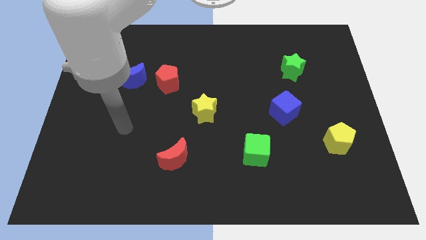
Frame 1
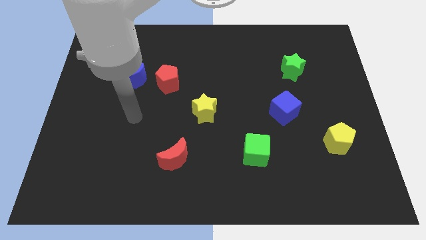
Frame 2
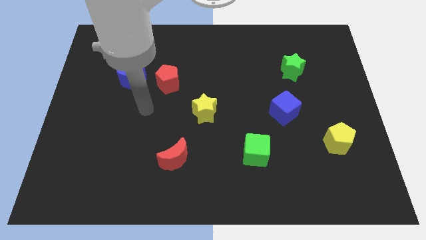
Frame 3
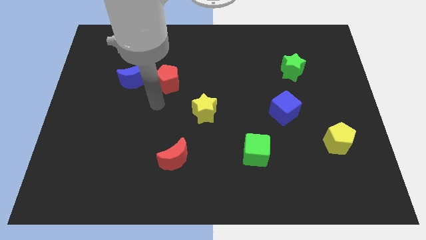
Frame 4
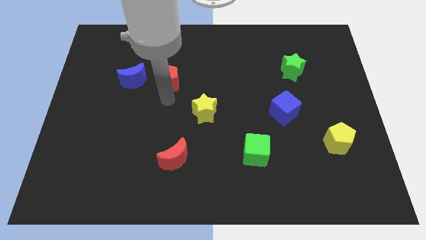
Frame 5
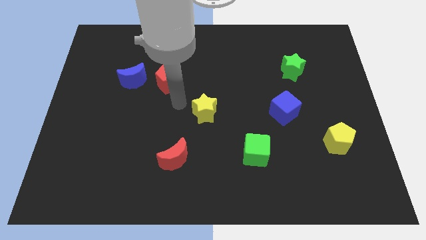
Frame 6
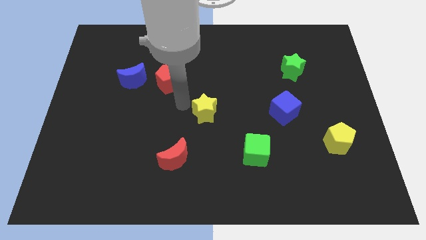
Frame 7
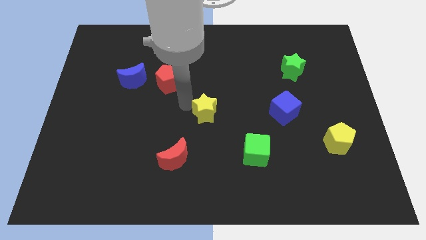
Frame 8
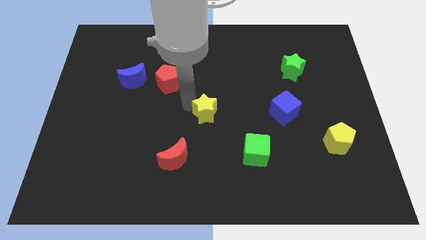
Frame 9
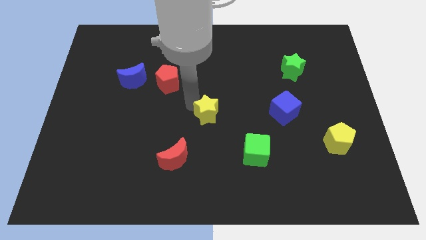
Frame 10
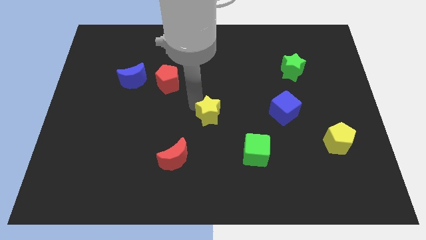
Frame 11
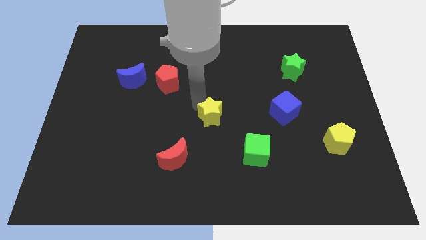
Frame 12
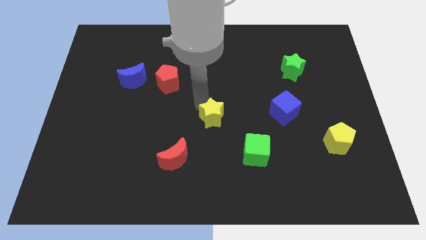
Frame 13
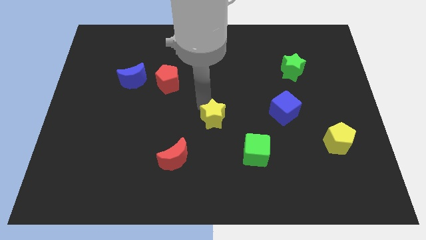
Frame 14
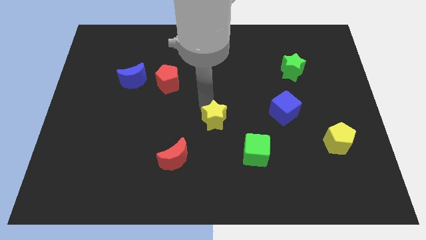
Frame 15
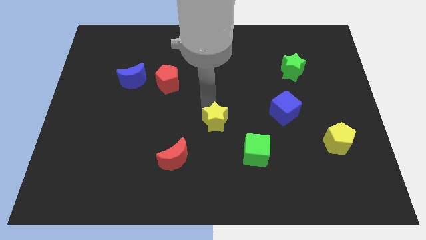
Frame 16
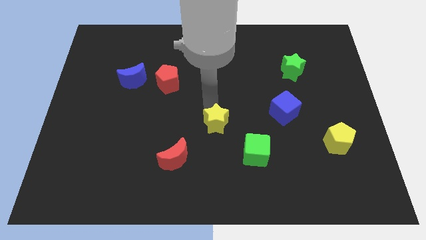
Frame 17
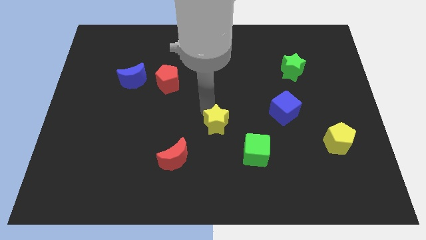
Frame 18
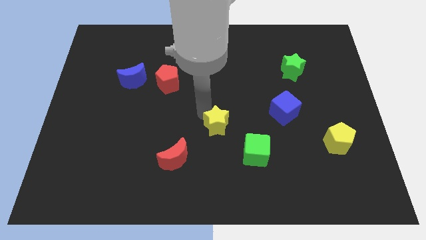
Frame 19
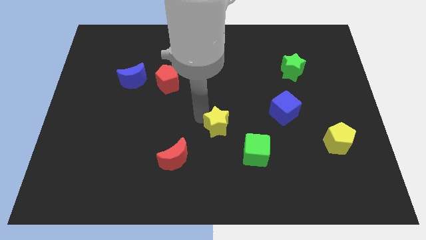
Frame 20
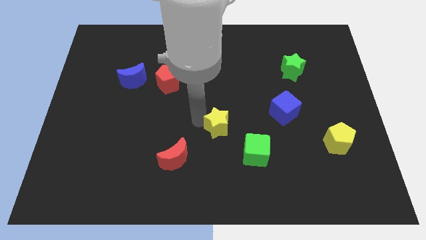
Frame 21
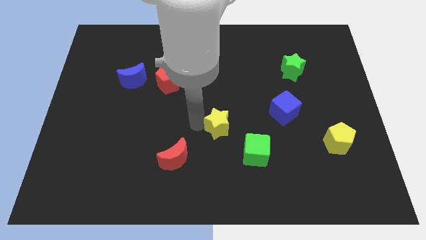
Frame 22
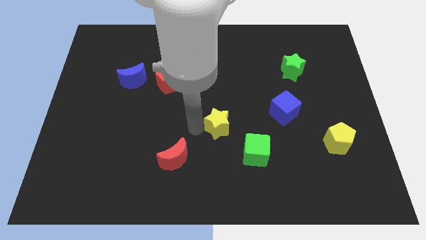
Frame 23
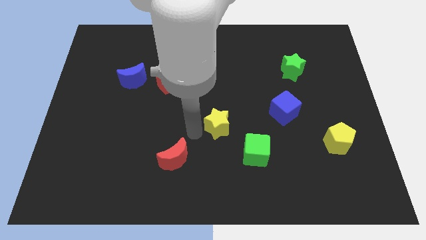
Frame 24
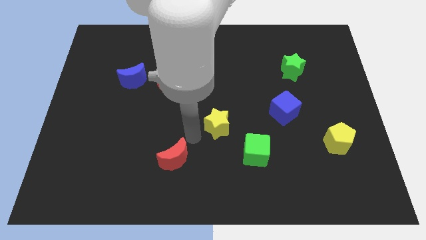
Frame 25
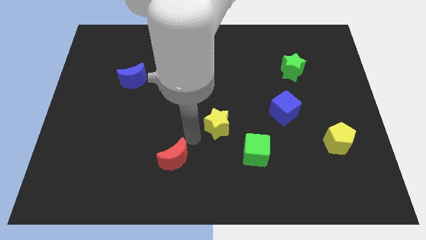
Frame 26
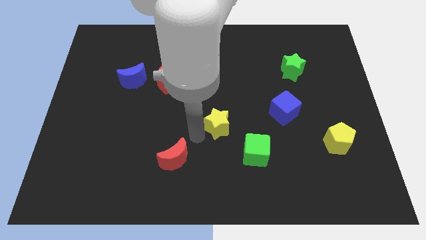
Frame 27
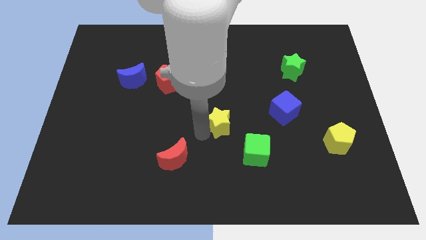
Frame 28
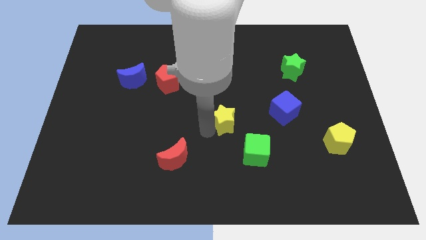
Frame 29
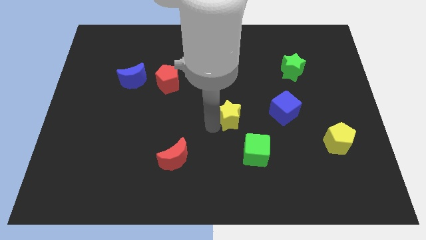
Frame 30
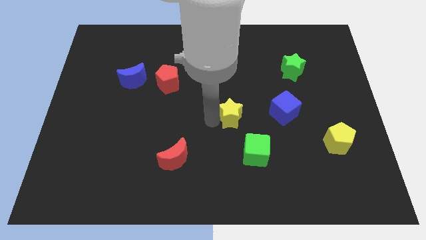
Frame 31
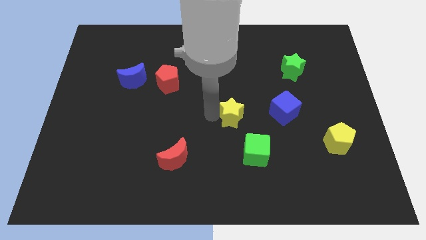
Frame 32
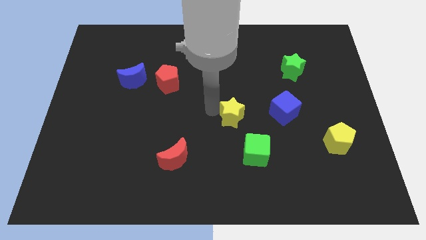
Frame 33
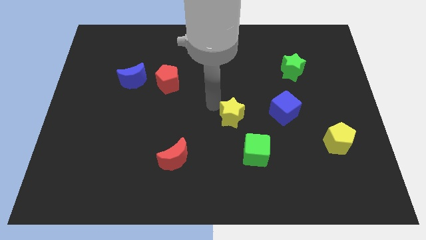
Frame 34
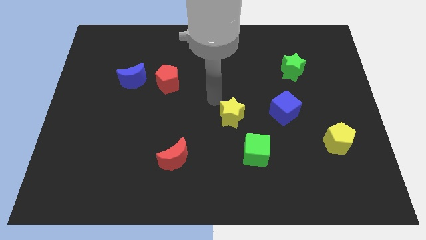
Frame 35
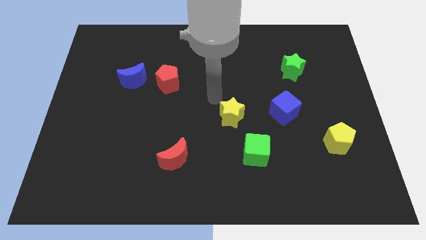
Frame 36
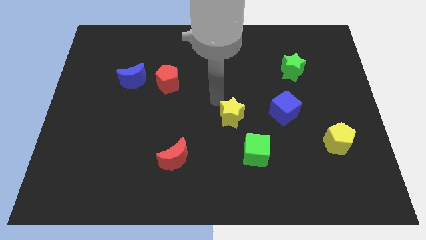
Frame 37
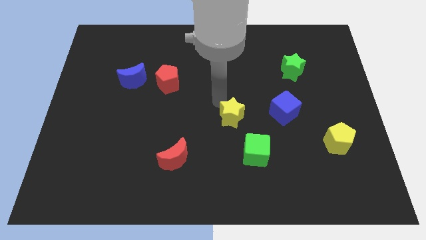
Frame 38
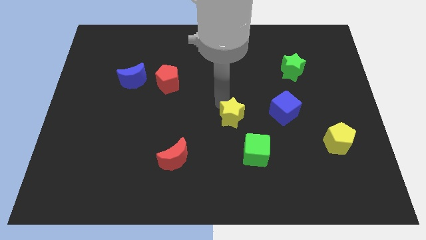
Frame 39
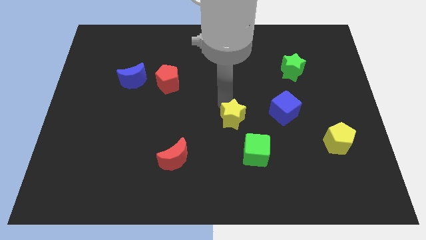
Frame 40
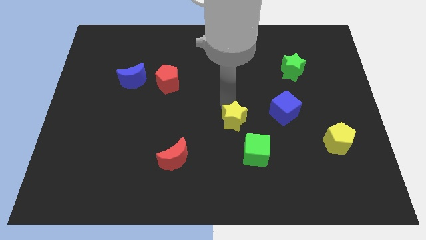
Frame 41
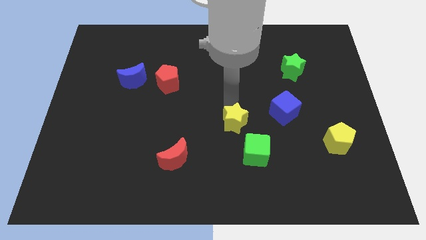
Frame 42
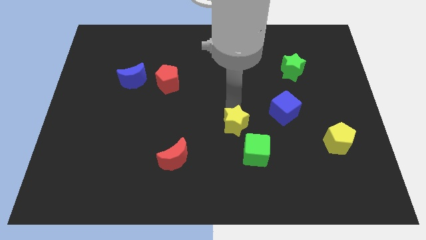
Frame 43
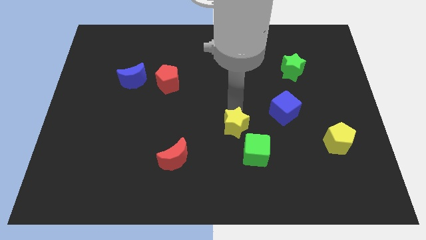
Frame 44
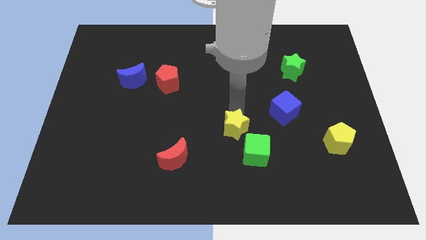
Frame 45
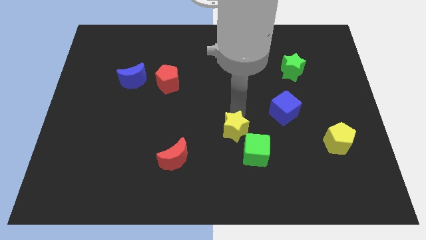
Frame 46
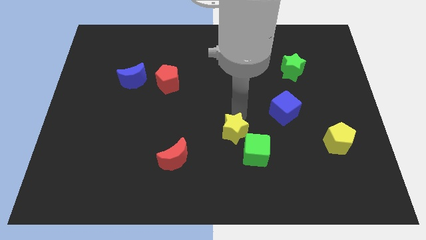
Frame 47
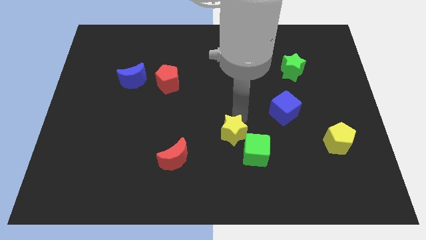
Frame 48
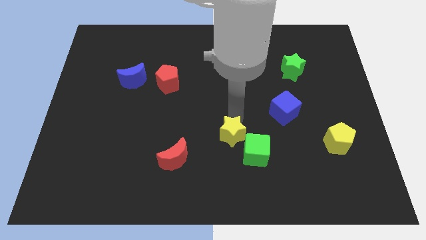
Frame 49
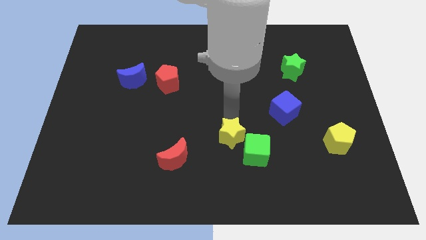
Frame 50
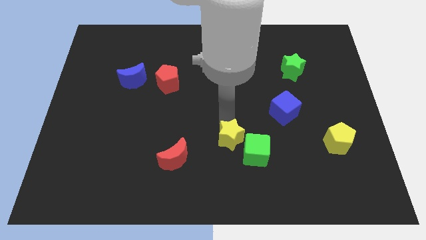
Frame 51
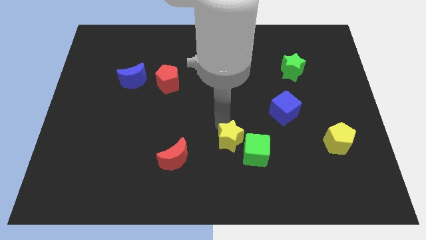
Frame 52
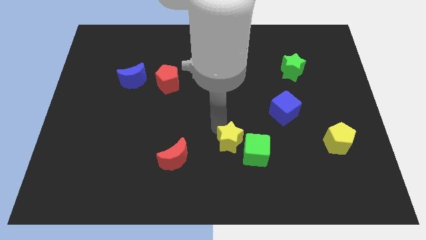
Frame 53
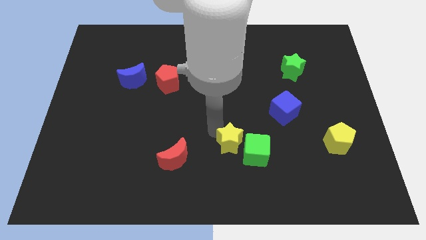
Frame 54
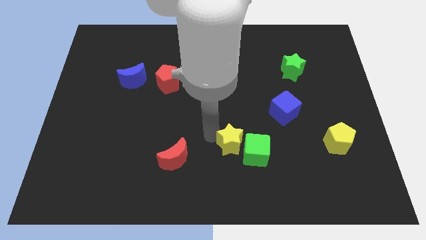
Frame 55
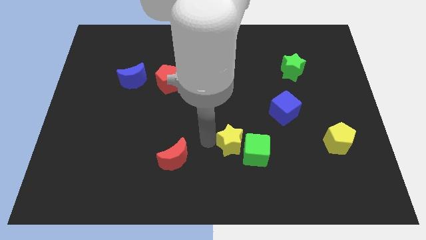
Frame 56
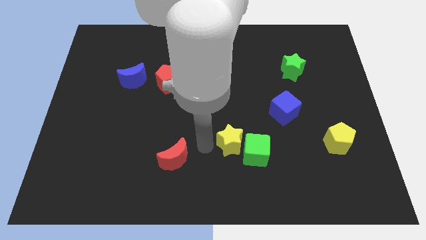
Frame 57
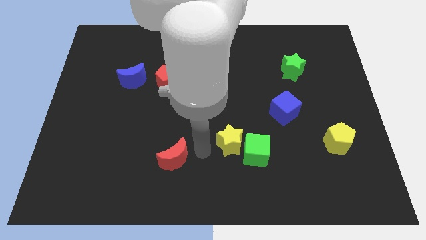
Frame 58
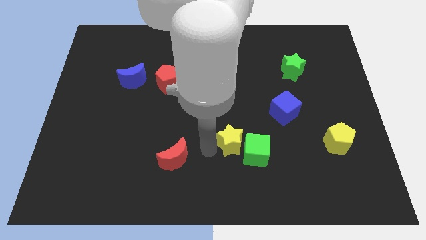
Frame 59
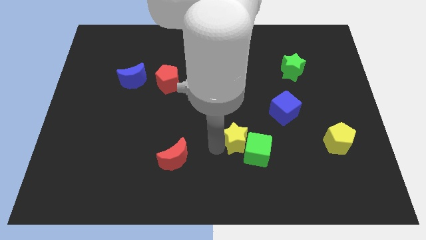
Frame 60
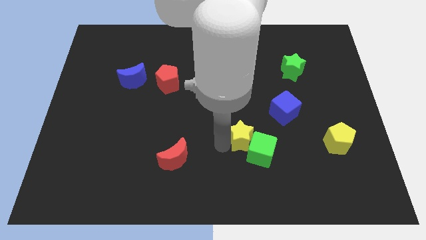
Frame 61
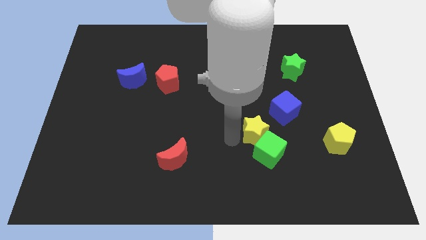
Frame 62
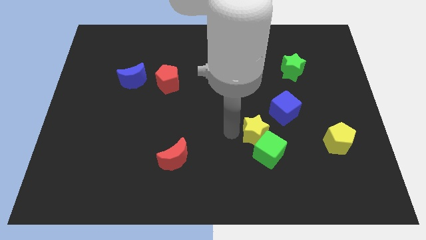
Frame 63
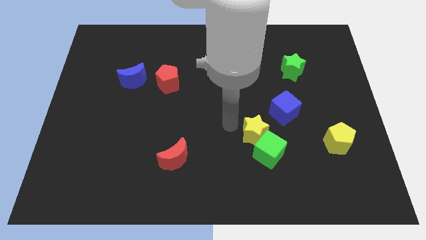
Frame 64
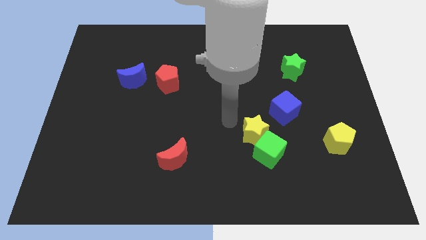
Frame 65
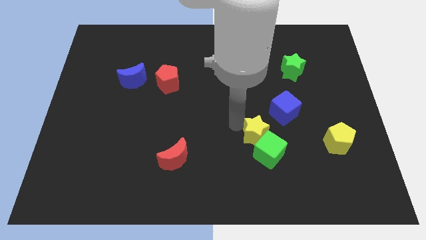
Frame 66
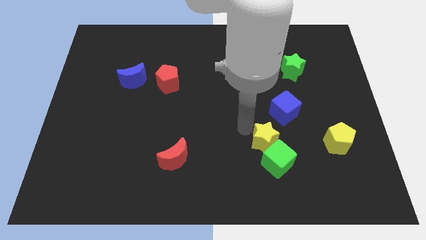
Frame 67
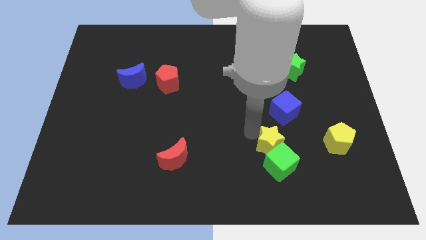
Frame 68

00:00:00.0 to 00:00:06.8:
put the yellow star to the bottom side of the blue cube

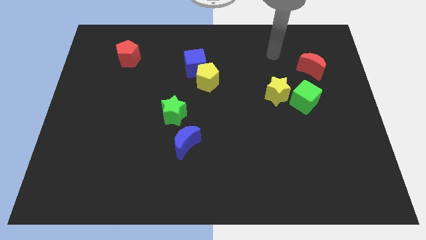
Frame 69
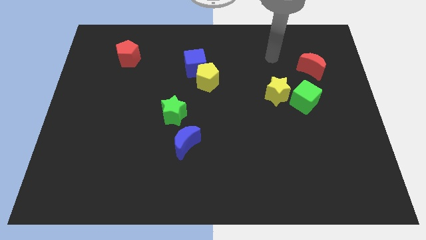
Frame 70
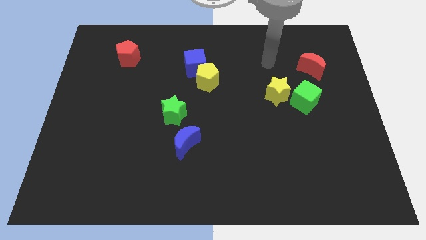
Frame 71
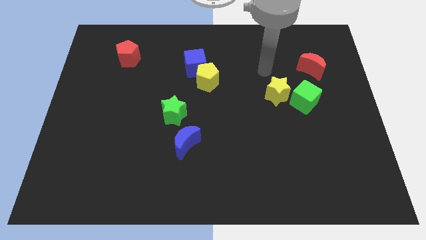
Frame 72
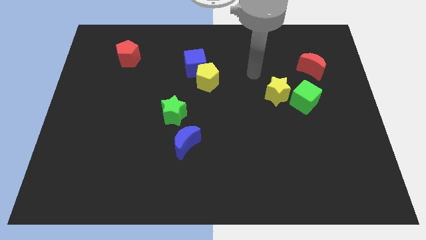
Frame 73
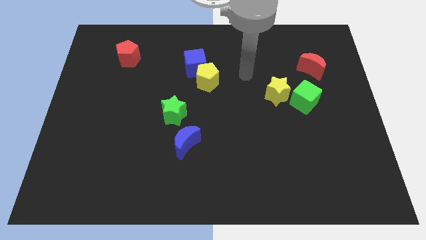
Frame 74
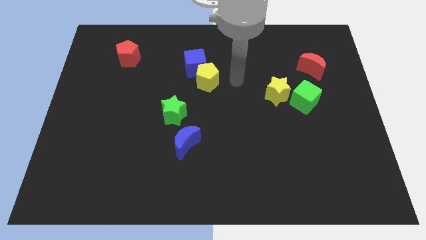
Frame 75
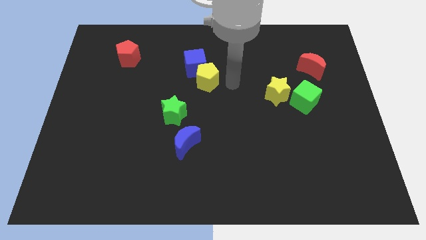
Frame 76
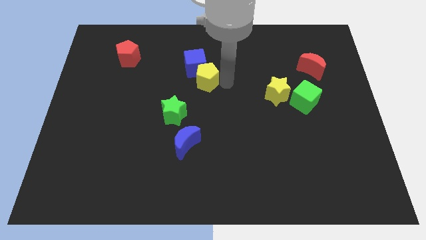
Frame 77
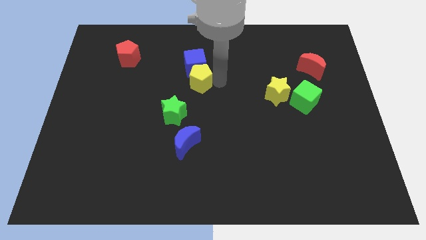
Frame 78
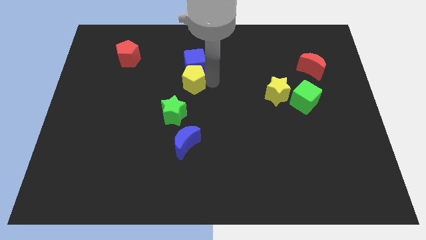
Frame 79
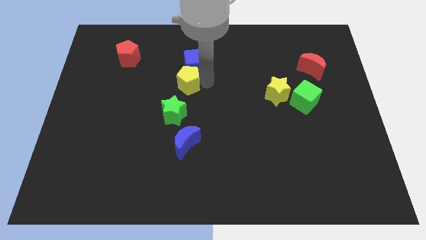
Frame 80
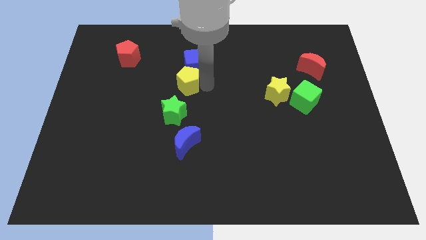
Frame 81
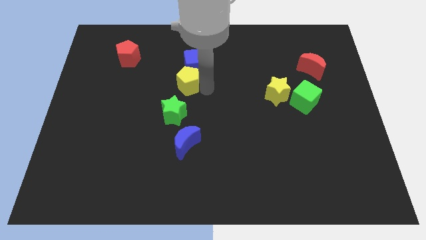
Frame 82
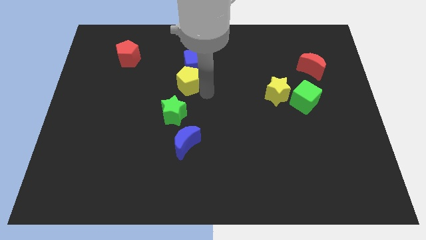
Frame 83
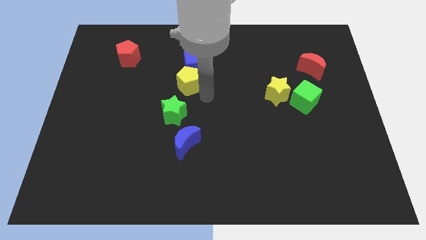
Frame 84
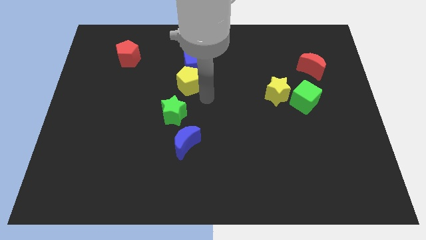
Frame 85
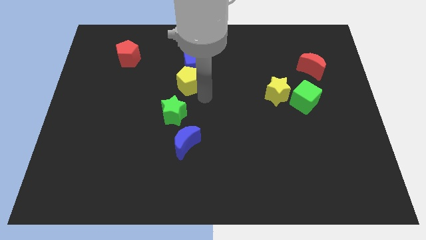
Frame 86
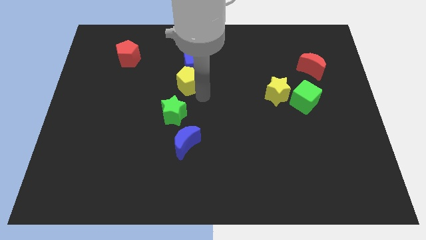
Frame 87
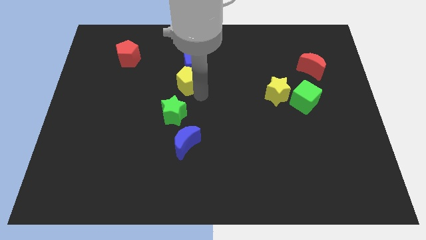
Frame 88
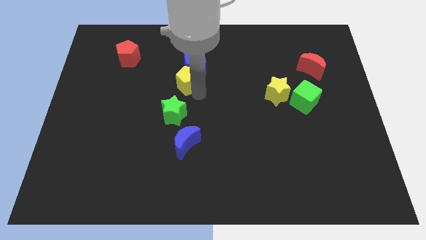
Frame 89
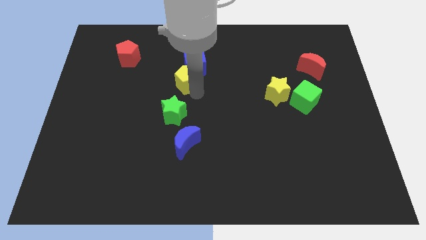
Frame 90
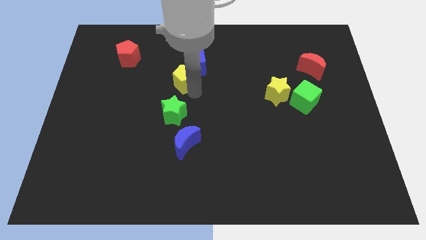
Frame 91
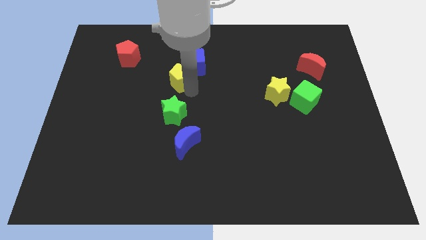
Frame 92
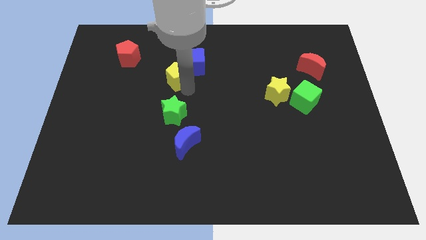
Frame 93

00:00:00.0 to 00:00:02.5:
move the yellow pentagon to the left of the blue cube
